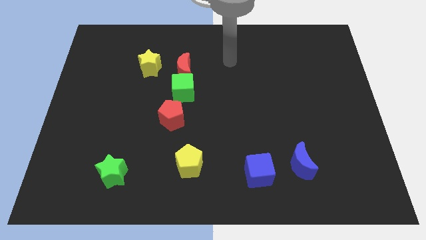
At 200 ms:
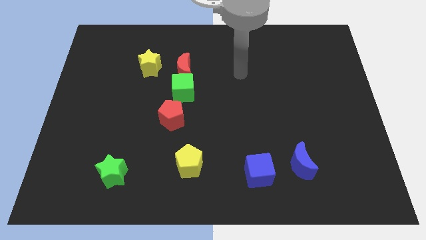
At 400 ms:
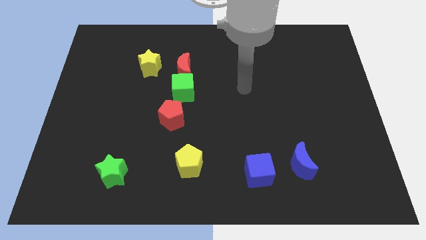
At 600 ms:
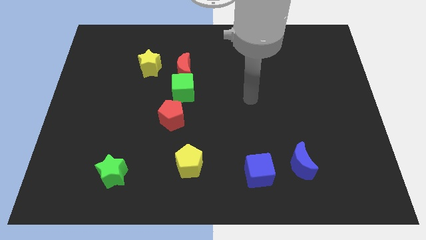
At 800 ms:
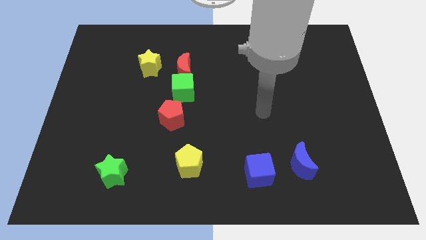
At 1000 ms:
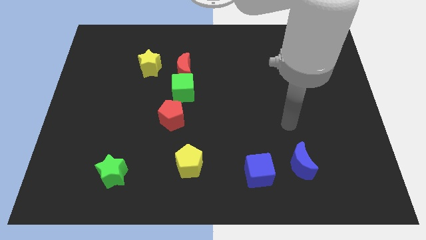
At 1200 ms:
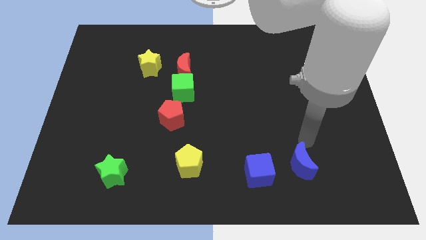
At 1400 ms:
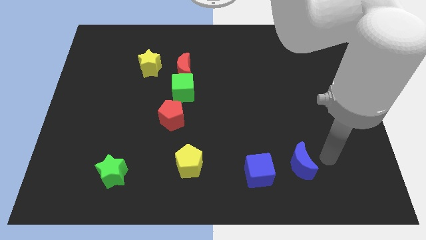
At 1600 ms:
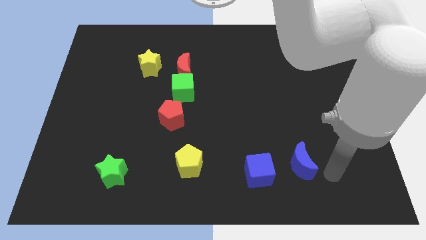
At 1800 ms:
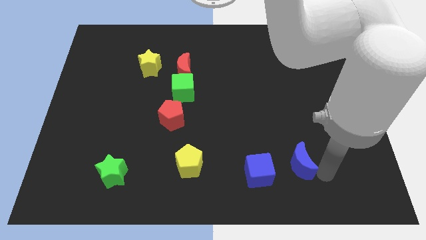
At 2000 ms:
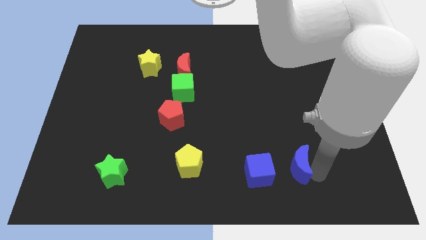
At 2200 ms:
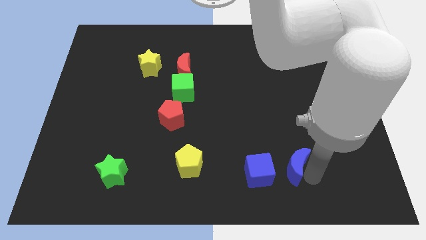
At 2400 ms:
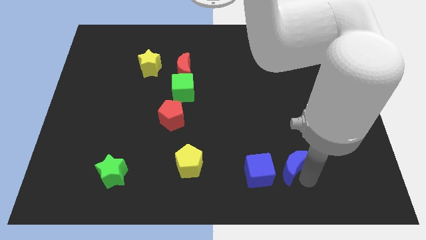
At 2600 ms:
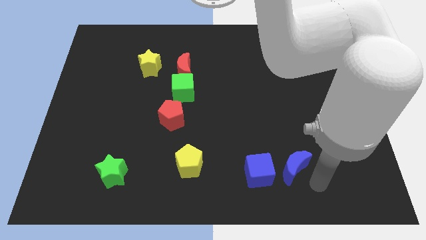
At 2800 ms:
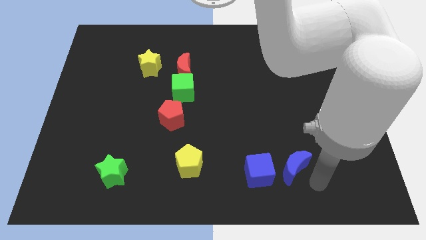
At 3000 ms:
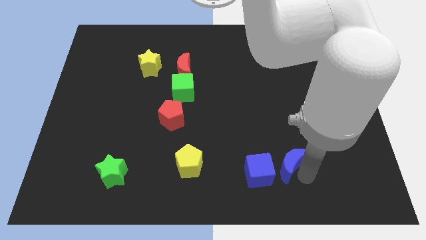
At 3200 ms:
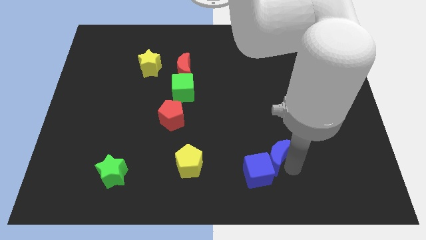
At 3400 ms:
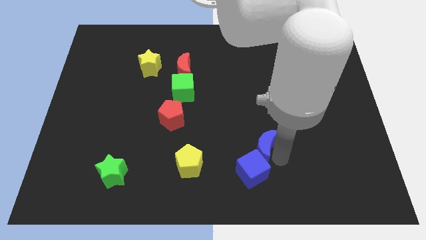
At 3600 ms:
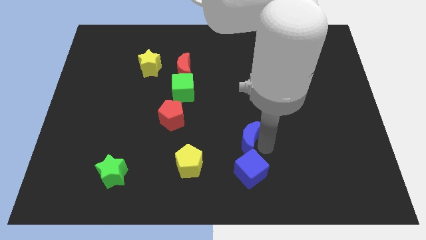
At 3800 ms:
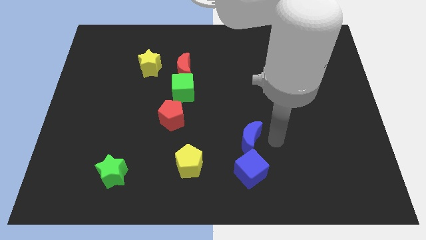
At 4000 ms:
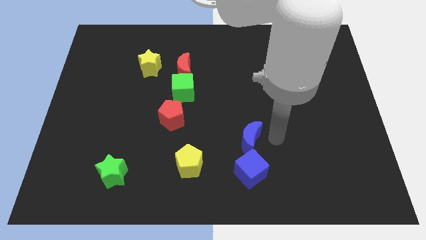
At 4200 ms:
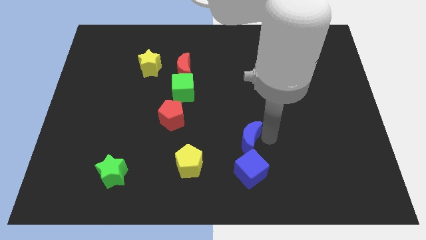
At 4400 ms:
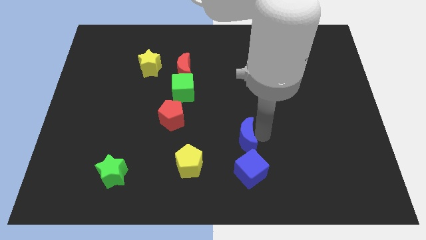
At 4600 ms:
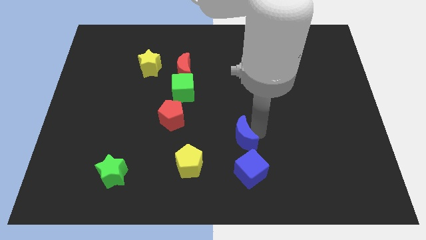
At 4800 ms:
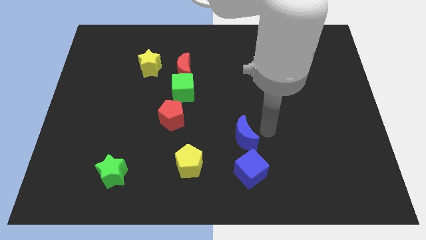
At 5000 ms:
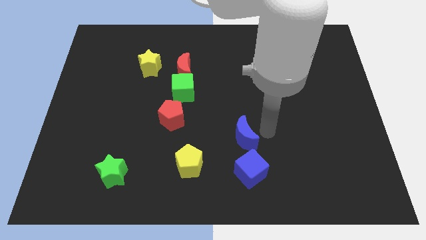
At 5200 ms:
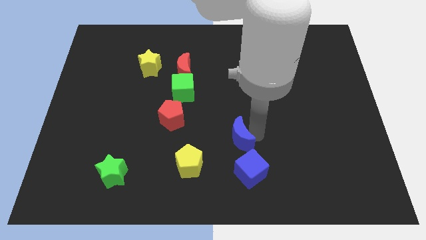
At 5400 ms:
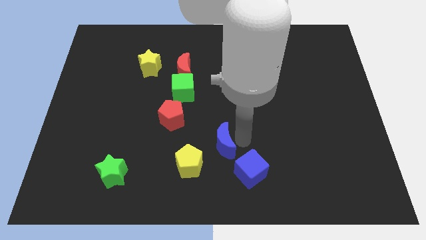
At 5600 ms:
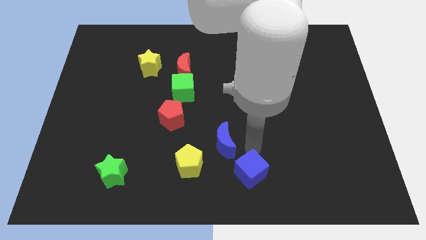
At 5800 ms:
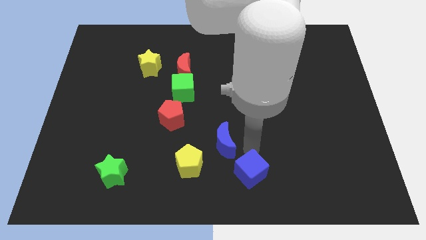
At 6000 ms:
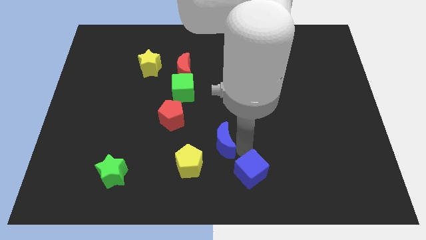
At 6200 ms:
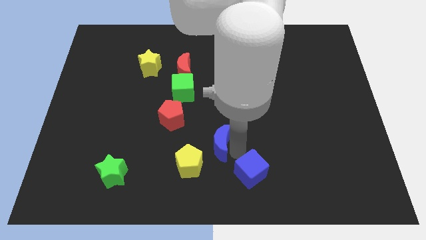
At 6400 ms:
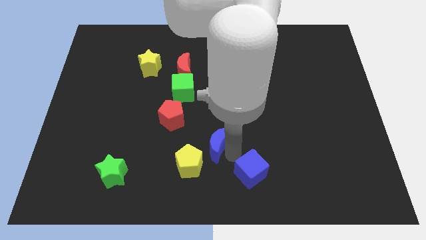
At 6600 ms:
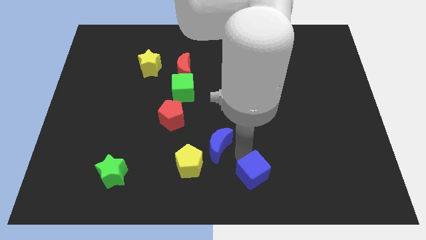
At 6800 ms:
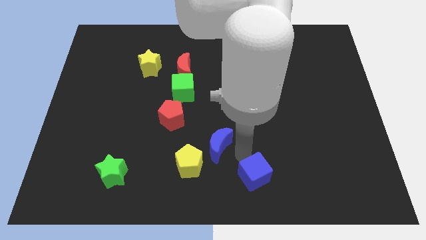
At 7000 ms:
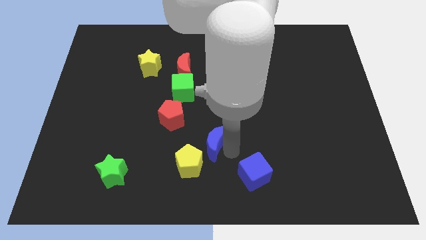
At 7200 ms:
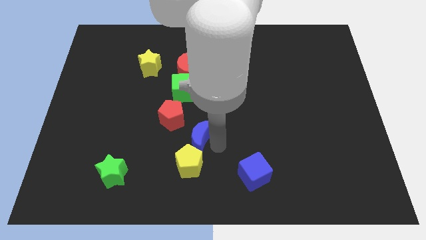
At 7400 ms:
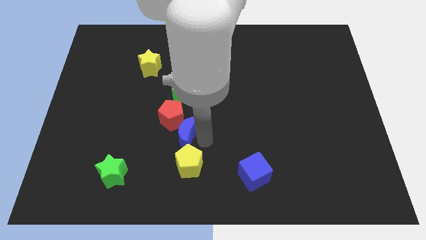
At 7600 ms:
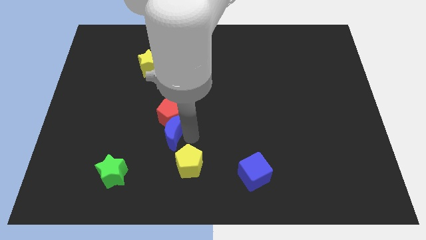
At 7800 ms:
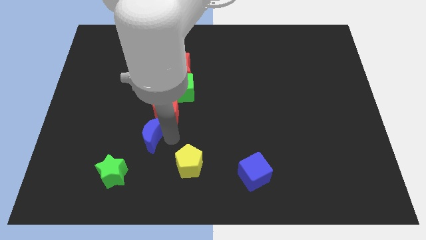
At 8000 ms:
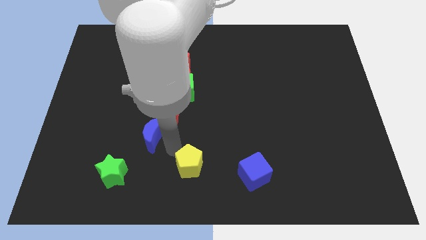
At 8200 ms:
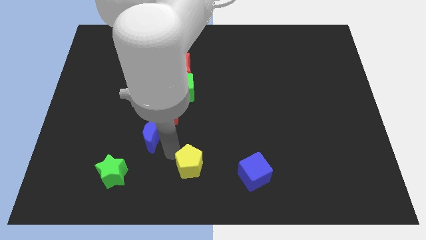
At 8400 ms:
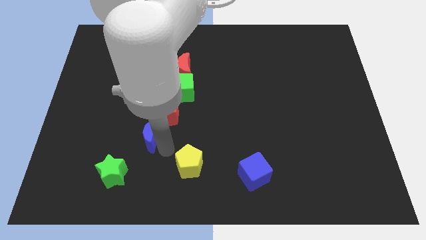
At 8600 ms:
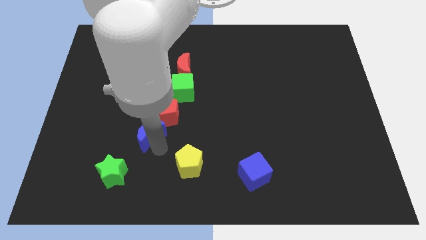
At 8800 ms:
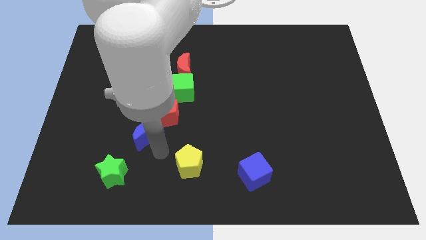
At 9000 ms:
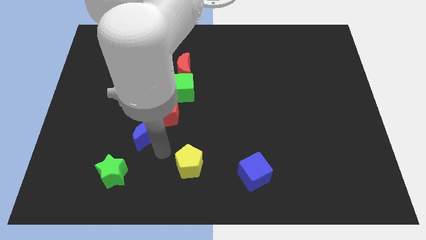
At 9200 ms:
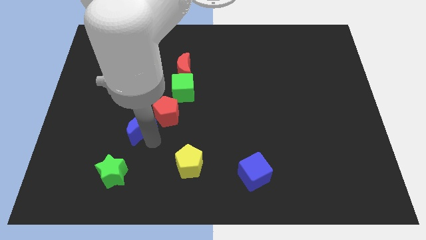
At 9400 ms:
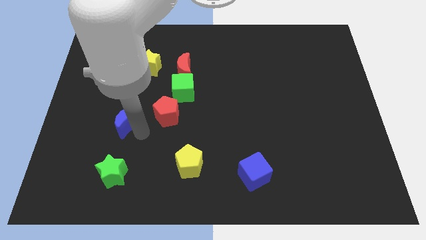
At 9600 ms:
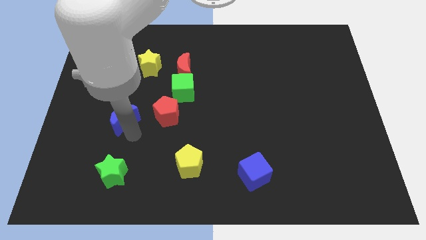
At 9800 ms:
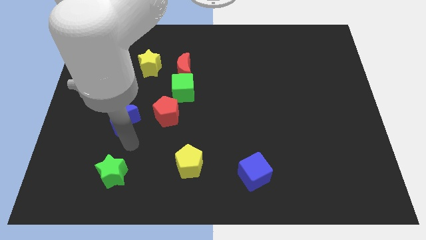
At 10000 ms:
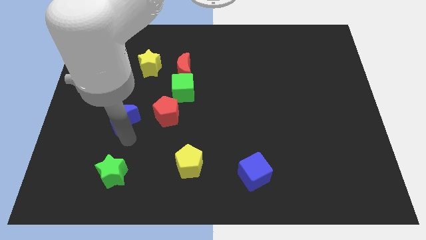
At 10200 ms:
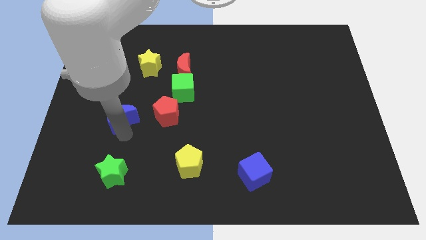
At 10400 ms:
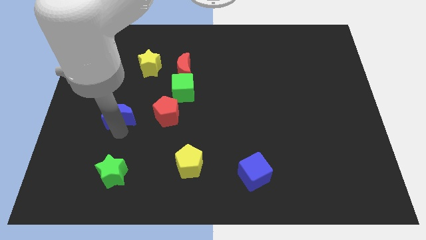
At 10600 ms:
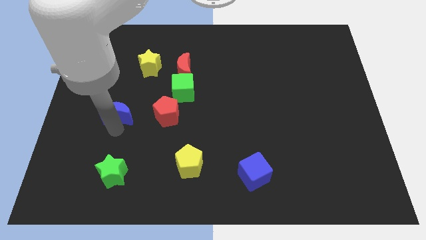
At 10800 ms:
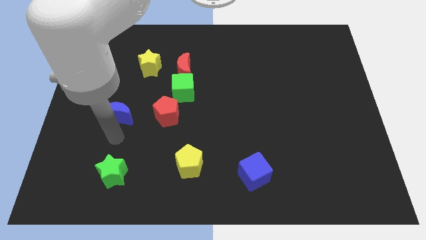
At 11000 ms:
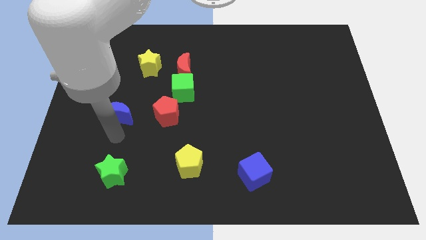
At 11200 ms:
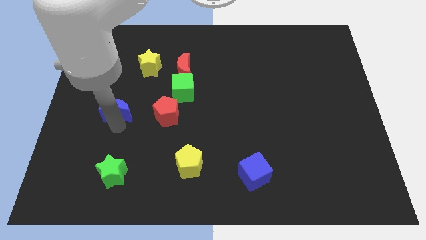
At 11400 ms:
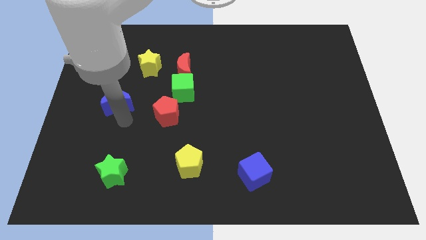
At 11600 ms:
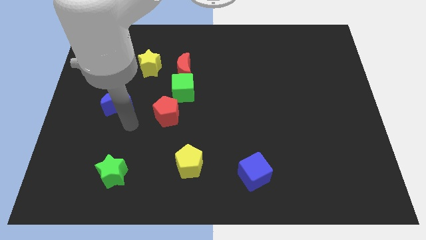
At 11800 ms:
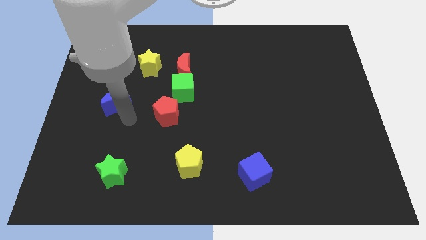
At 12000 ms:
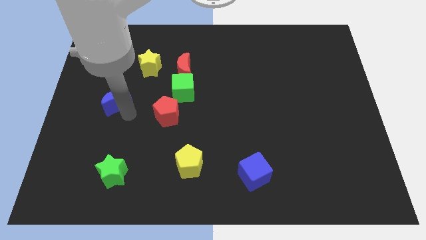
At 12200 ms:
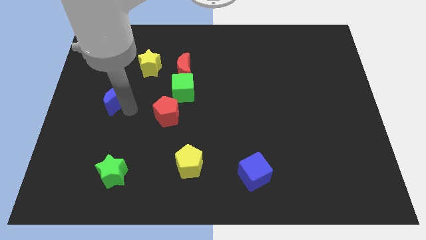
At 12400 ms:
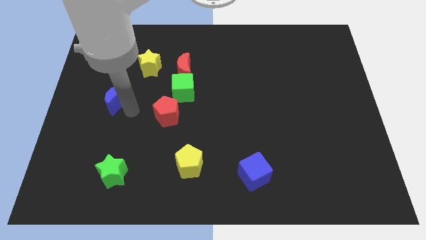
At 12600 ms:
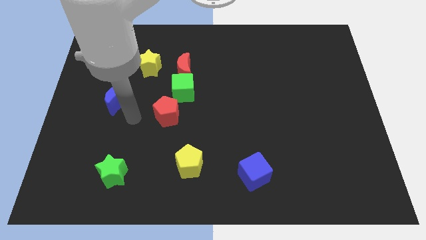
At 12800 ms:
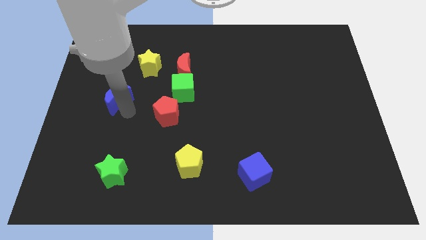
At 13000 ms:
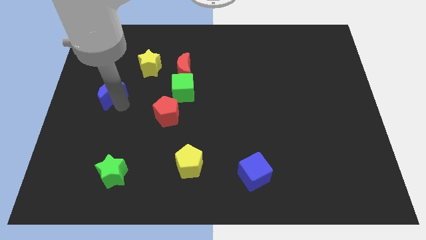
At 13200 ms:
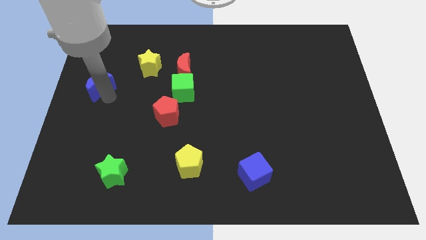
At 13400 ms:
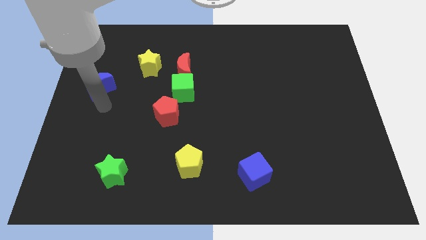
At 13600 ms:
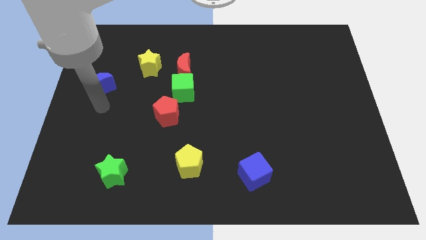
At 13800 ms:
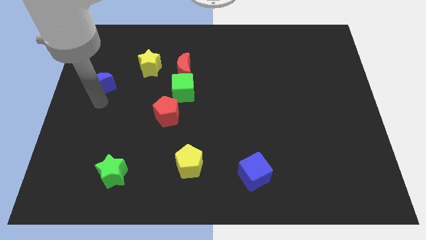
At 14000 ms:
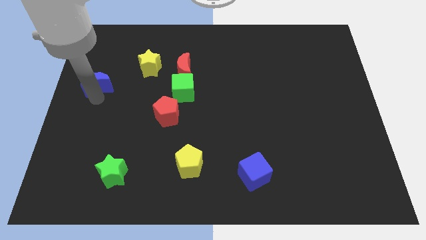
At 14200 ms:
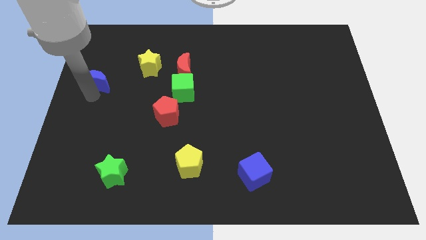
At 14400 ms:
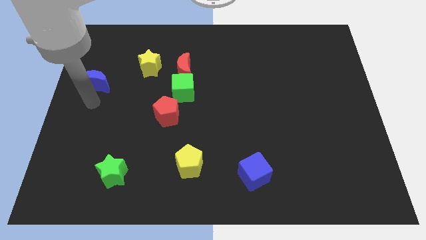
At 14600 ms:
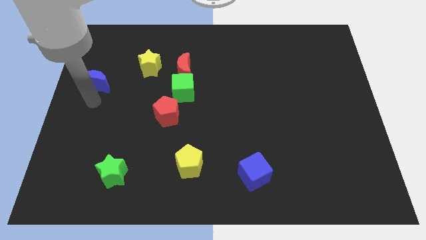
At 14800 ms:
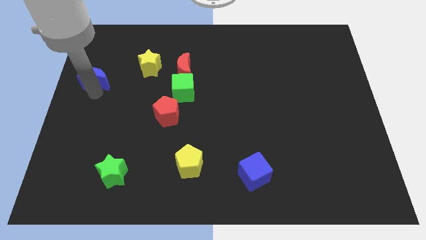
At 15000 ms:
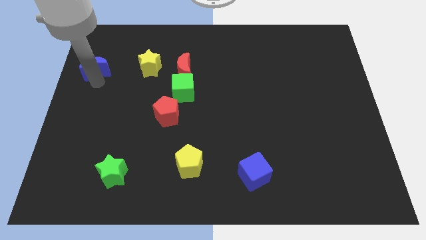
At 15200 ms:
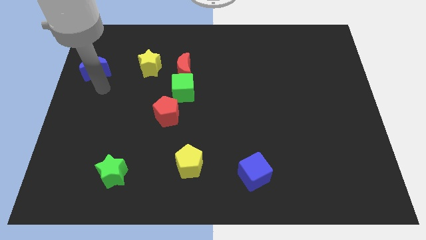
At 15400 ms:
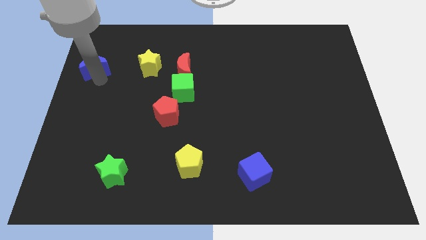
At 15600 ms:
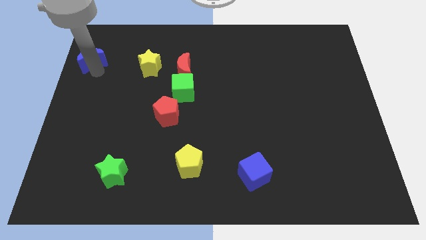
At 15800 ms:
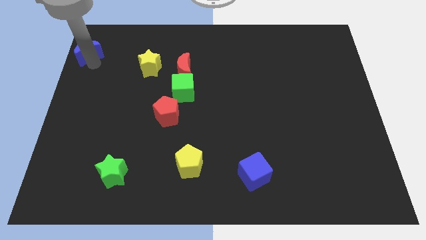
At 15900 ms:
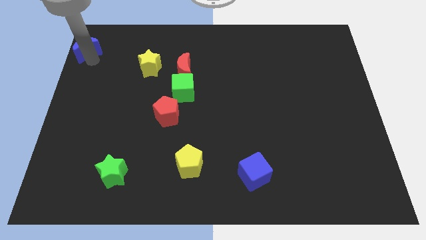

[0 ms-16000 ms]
push the blue moon to the top left corner
